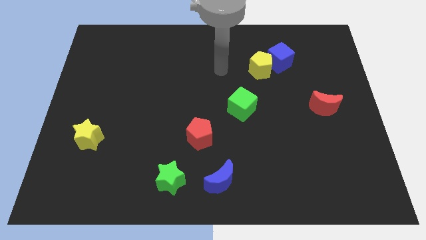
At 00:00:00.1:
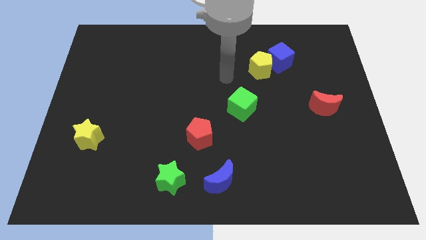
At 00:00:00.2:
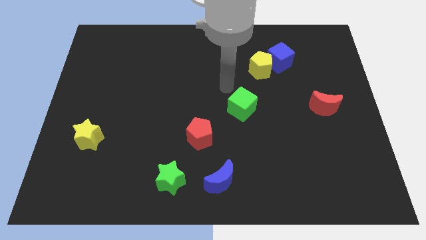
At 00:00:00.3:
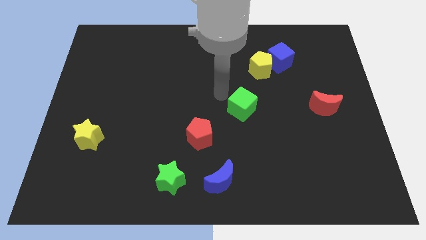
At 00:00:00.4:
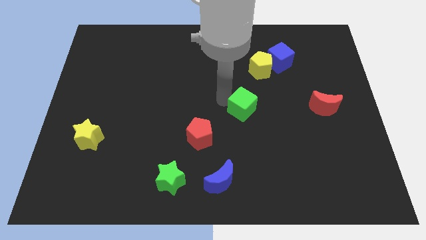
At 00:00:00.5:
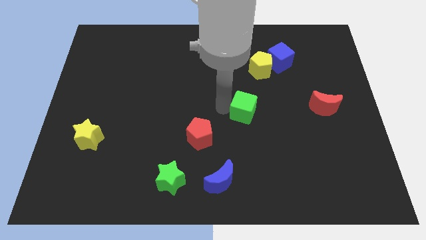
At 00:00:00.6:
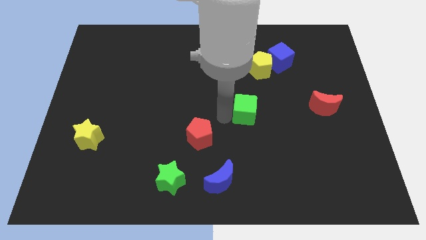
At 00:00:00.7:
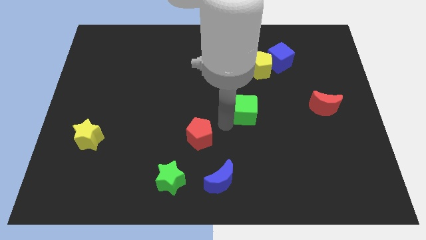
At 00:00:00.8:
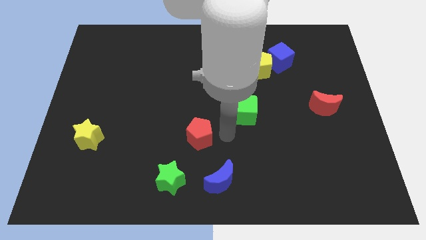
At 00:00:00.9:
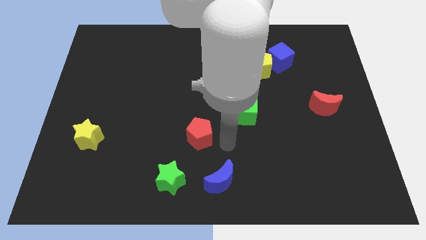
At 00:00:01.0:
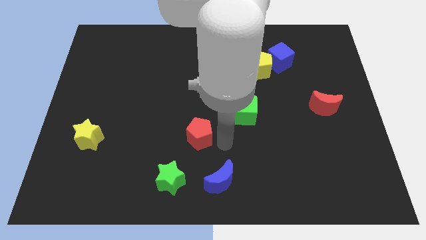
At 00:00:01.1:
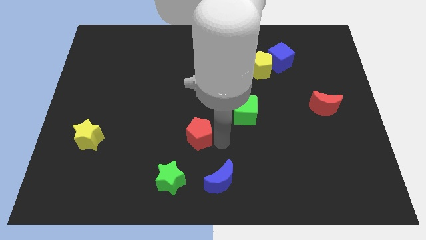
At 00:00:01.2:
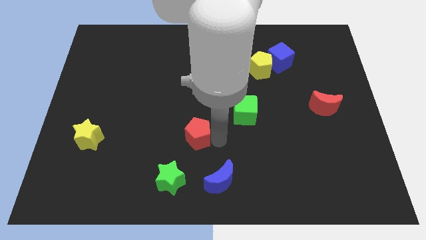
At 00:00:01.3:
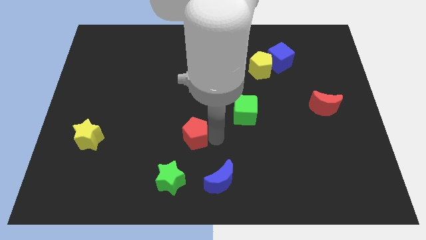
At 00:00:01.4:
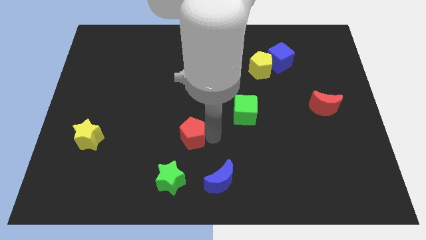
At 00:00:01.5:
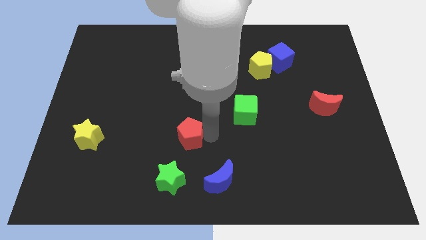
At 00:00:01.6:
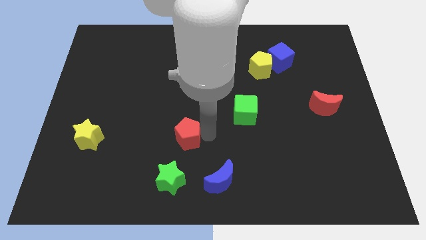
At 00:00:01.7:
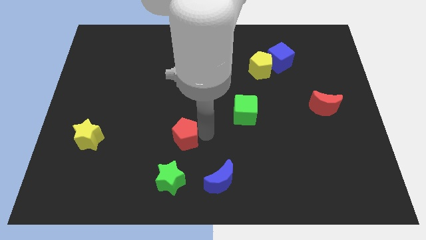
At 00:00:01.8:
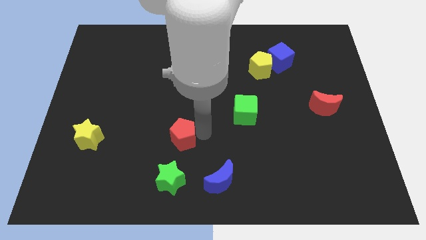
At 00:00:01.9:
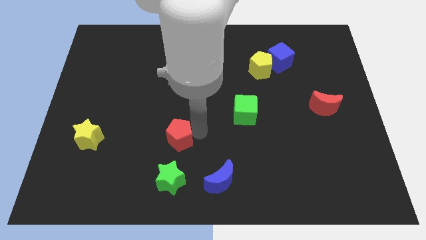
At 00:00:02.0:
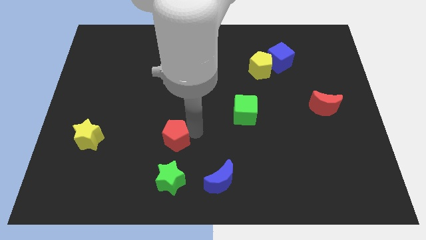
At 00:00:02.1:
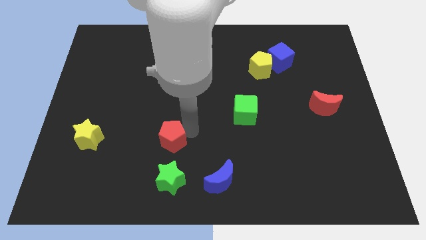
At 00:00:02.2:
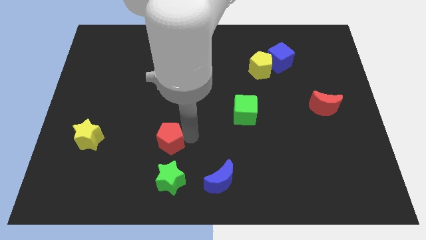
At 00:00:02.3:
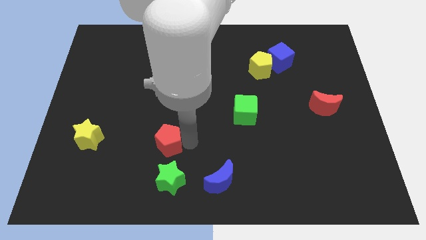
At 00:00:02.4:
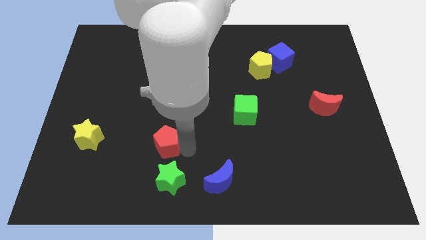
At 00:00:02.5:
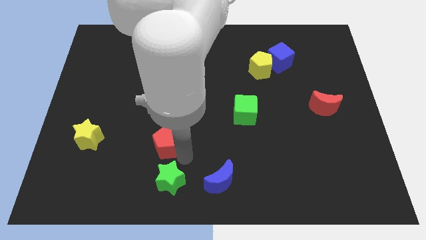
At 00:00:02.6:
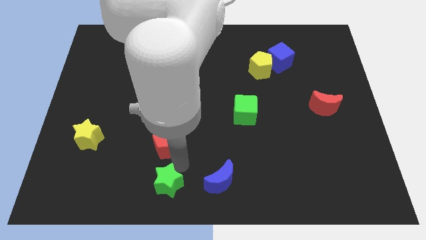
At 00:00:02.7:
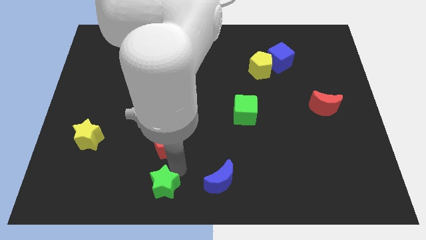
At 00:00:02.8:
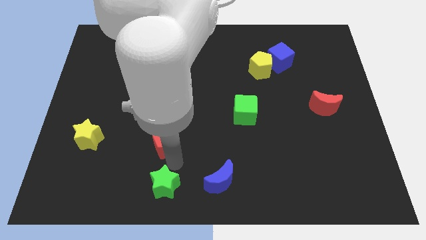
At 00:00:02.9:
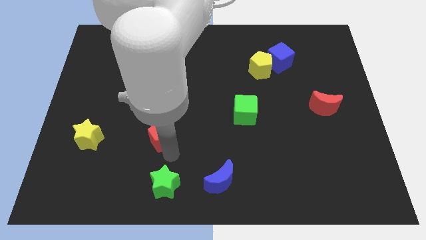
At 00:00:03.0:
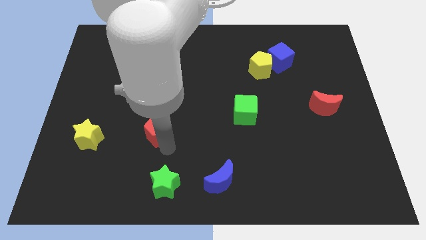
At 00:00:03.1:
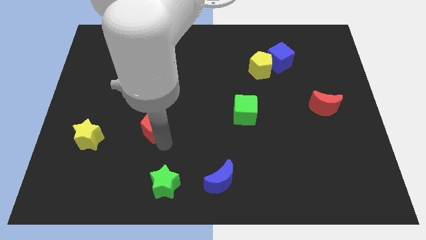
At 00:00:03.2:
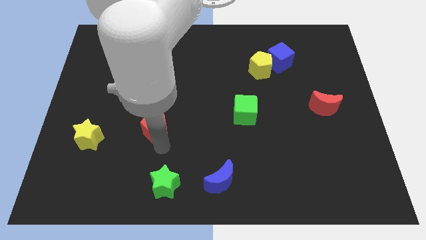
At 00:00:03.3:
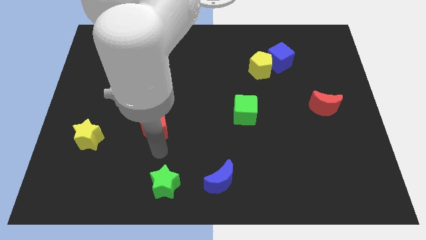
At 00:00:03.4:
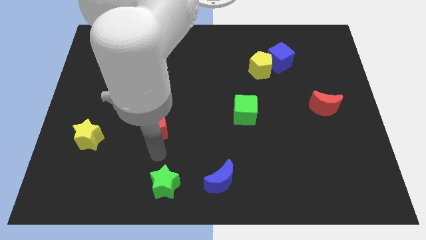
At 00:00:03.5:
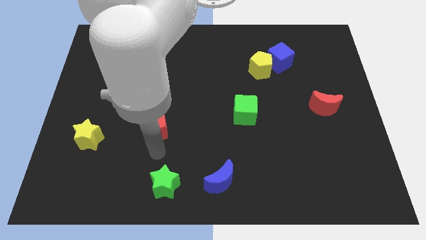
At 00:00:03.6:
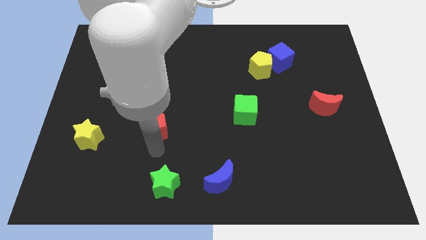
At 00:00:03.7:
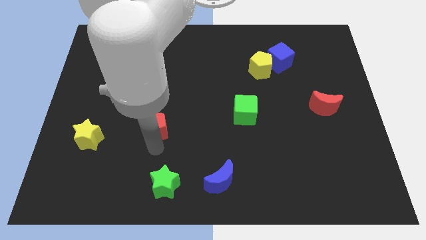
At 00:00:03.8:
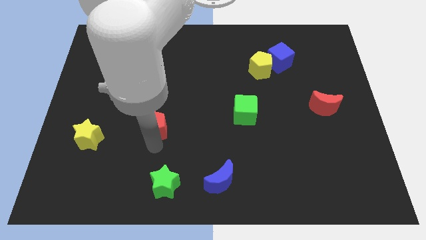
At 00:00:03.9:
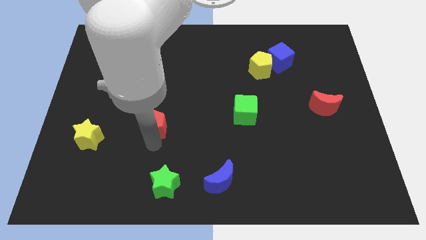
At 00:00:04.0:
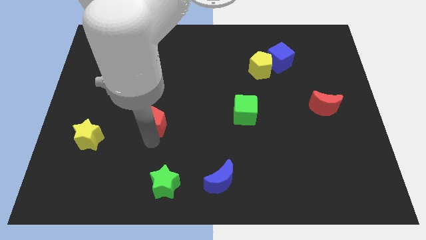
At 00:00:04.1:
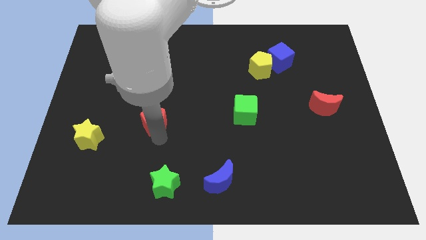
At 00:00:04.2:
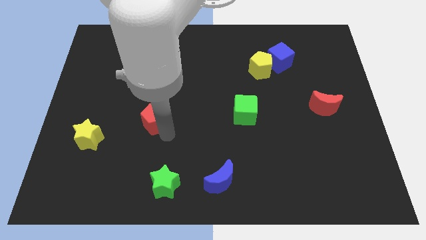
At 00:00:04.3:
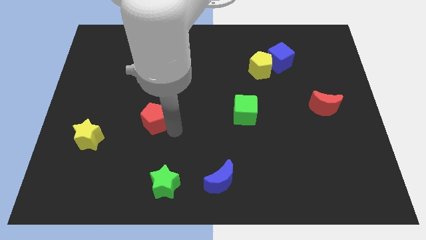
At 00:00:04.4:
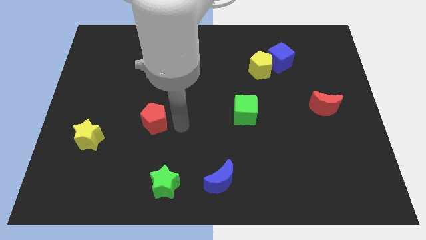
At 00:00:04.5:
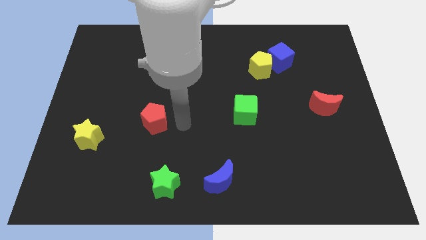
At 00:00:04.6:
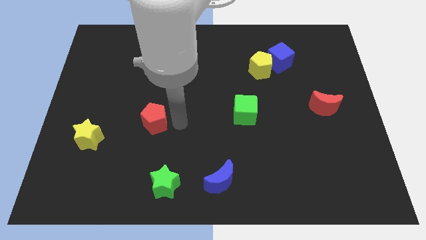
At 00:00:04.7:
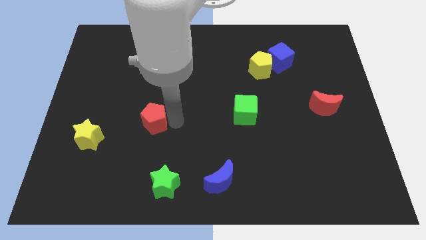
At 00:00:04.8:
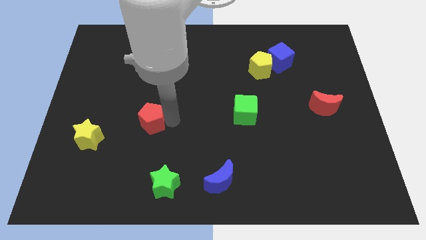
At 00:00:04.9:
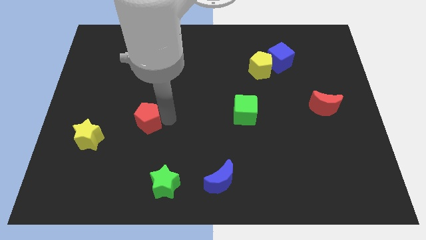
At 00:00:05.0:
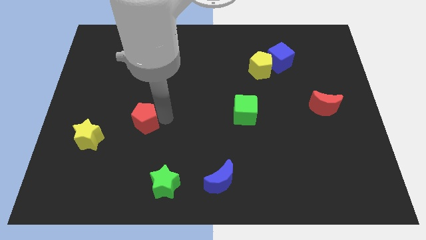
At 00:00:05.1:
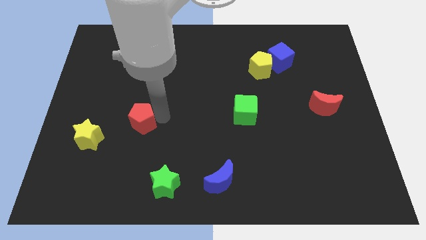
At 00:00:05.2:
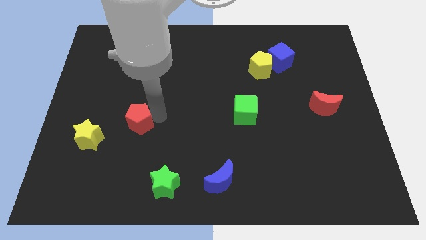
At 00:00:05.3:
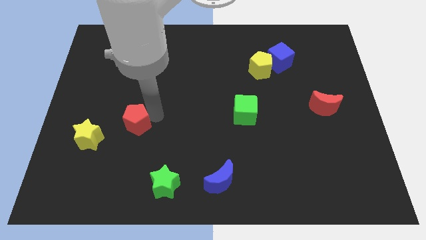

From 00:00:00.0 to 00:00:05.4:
slide the red pentagon diagonally up and to the right of the yellow star

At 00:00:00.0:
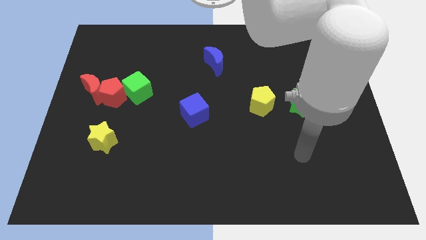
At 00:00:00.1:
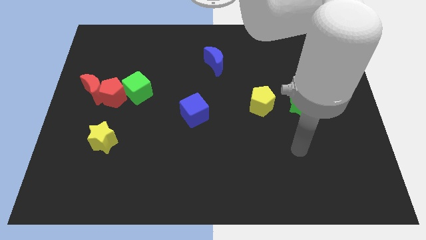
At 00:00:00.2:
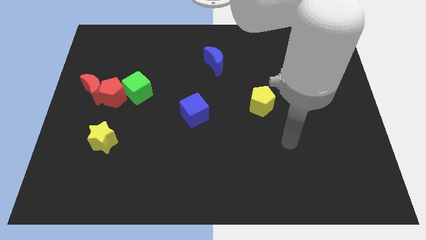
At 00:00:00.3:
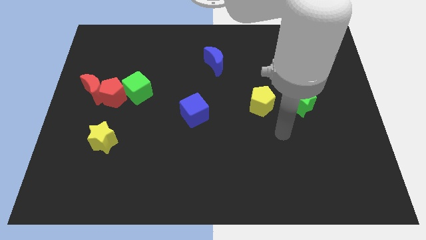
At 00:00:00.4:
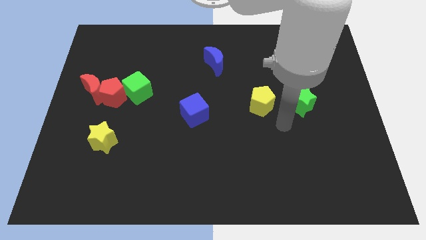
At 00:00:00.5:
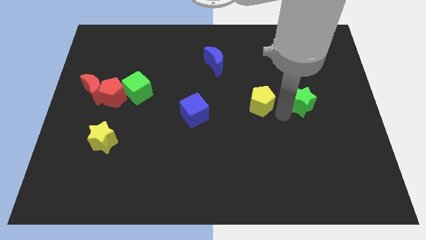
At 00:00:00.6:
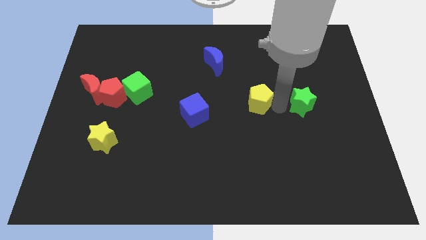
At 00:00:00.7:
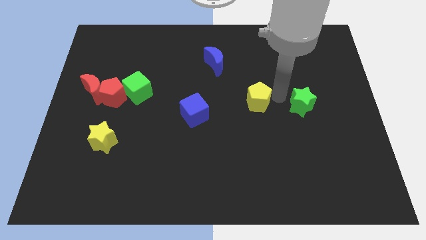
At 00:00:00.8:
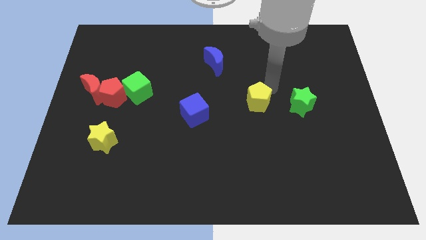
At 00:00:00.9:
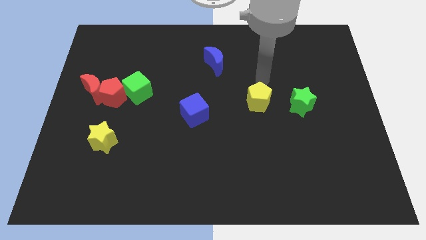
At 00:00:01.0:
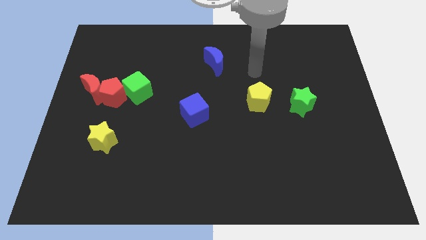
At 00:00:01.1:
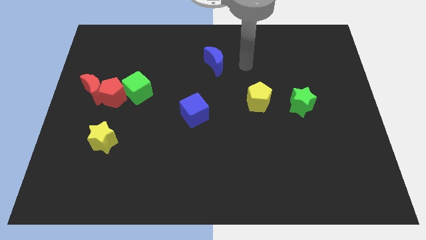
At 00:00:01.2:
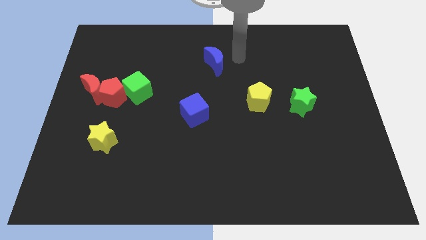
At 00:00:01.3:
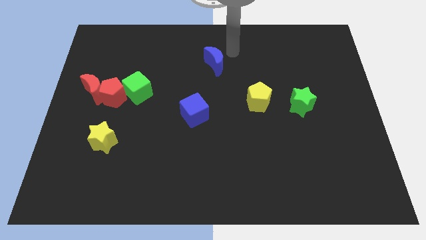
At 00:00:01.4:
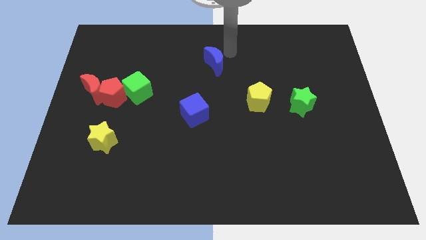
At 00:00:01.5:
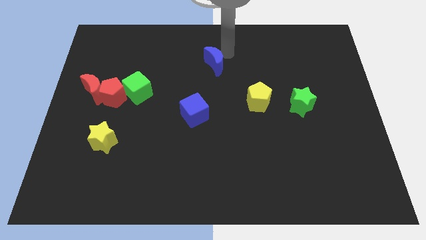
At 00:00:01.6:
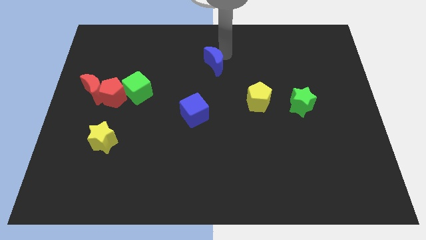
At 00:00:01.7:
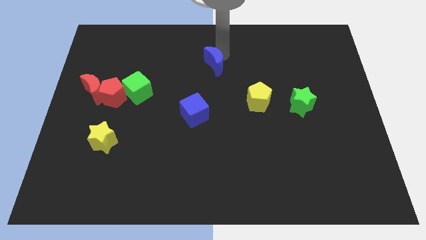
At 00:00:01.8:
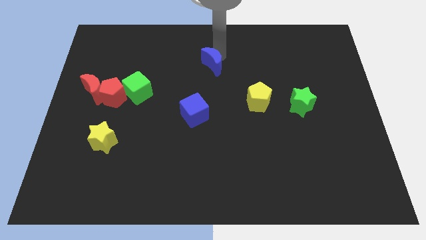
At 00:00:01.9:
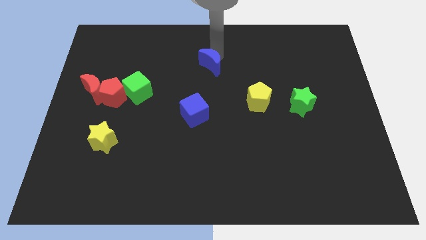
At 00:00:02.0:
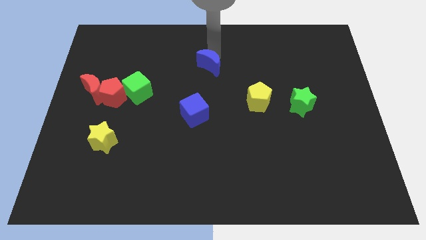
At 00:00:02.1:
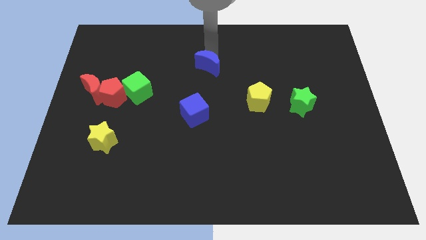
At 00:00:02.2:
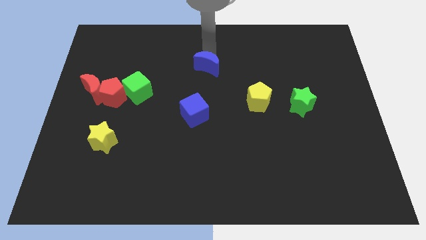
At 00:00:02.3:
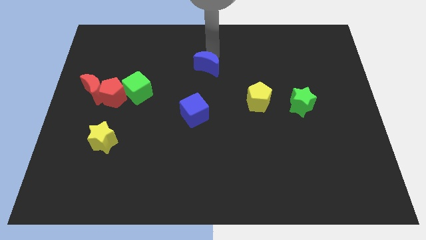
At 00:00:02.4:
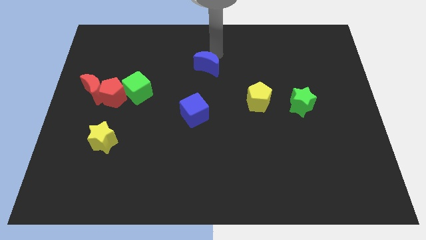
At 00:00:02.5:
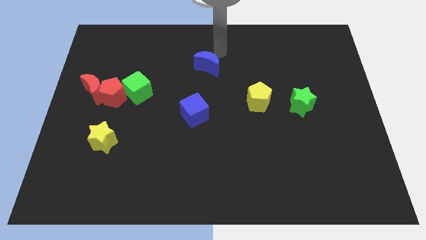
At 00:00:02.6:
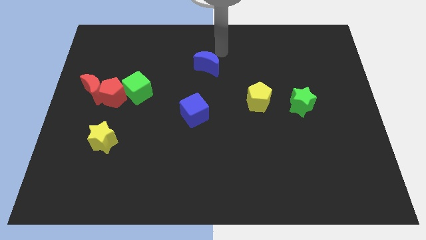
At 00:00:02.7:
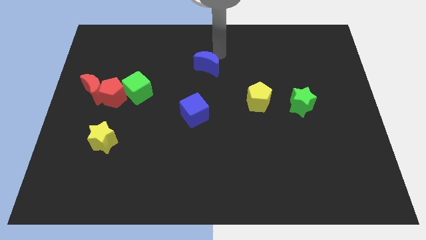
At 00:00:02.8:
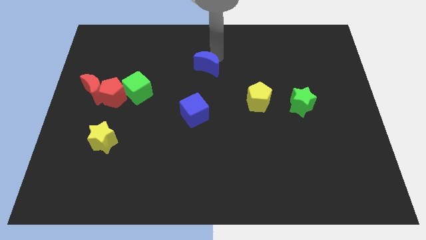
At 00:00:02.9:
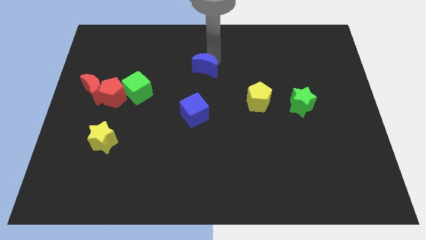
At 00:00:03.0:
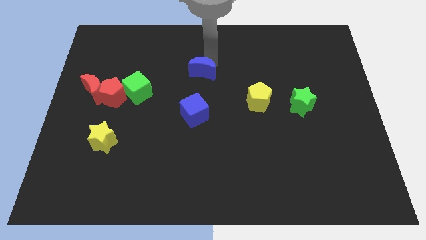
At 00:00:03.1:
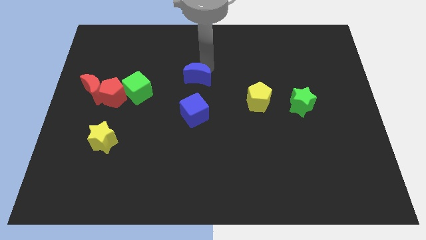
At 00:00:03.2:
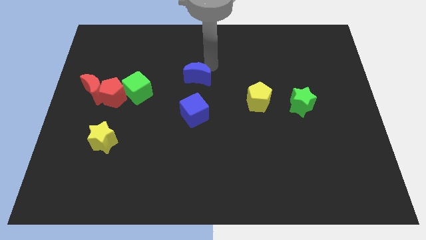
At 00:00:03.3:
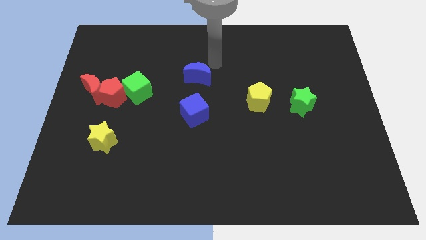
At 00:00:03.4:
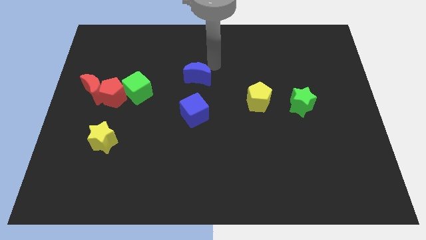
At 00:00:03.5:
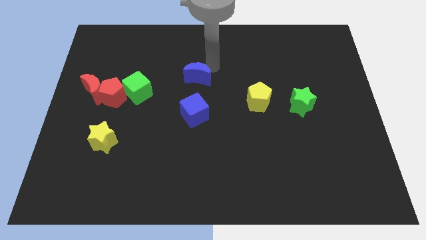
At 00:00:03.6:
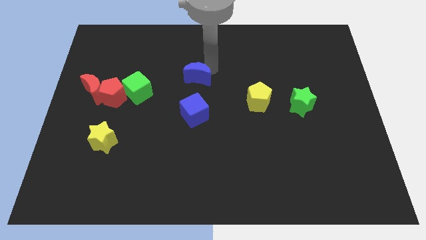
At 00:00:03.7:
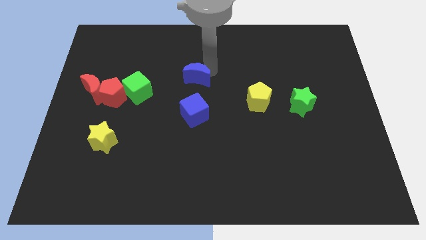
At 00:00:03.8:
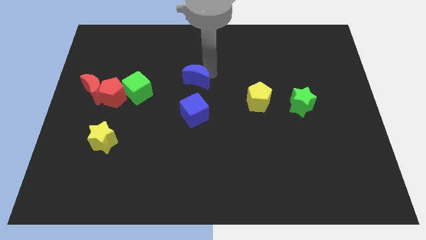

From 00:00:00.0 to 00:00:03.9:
push the blue moon just right of the green cube
